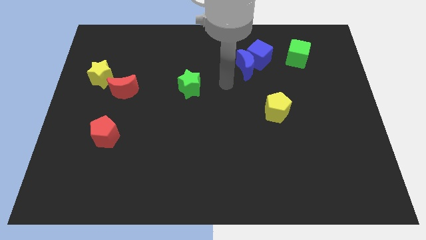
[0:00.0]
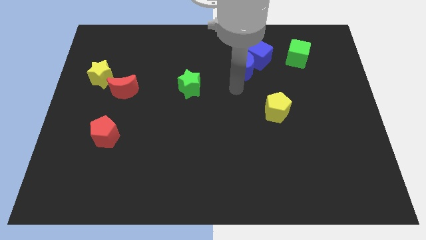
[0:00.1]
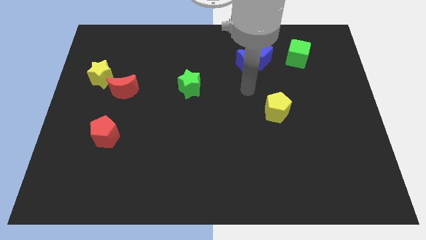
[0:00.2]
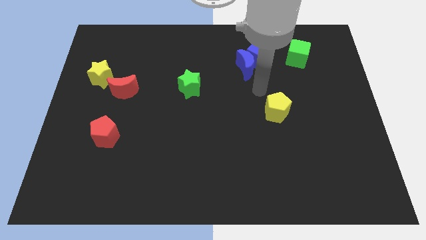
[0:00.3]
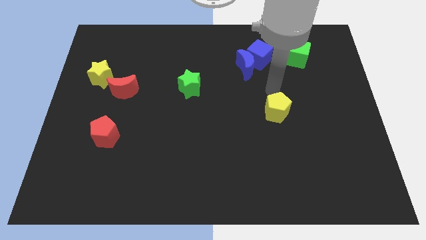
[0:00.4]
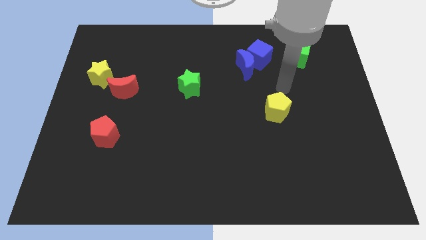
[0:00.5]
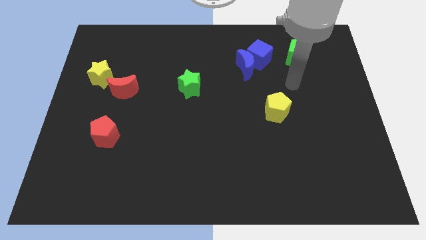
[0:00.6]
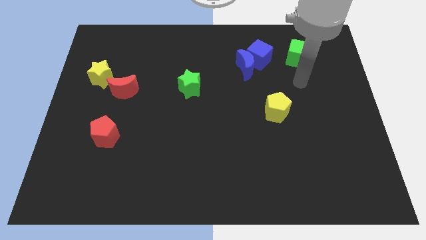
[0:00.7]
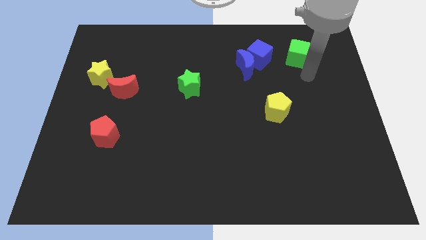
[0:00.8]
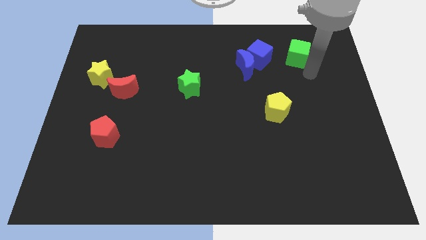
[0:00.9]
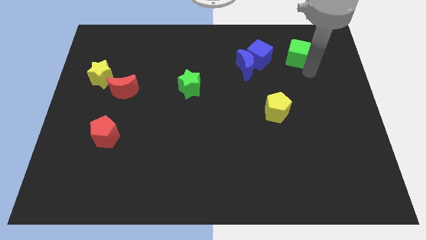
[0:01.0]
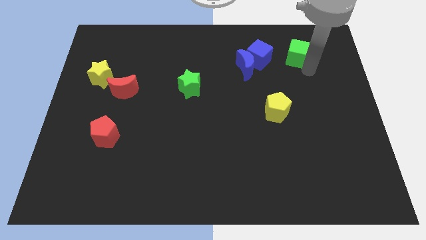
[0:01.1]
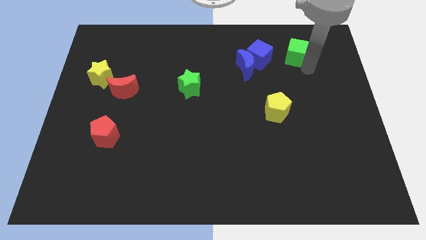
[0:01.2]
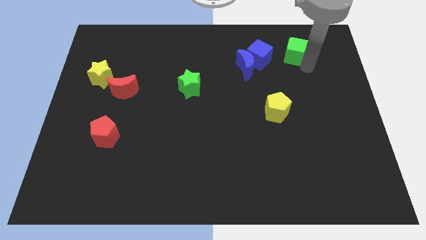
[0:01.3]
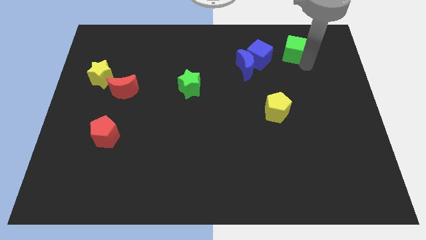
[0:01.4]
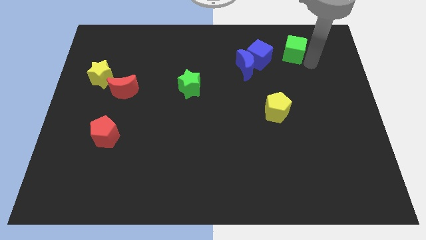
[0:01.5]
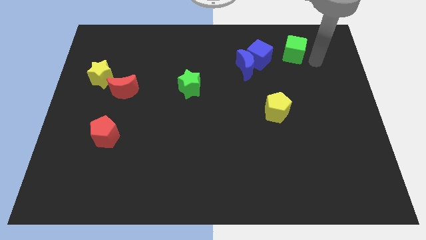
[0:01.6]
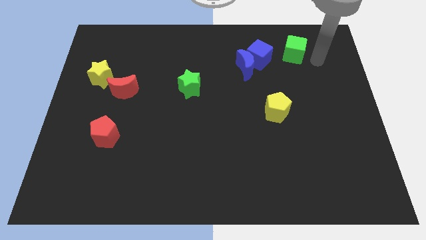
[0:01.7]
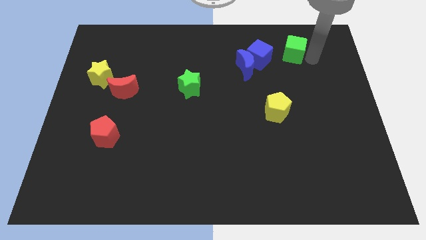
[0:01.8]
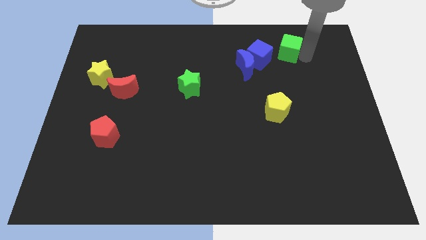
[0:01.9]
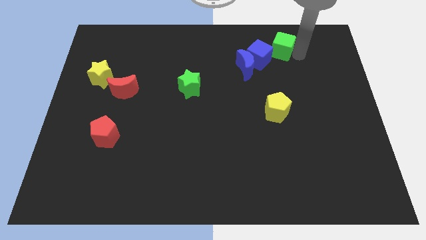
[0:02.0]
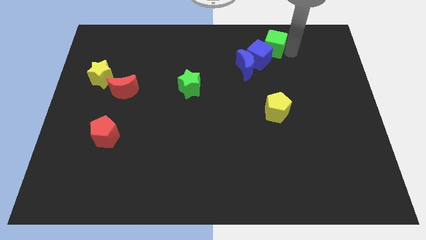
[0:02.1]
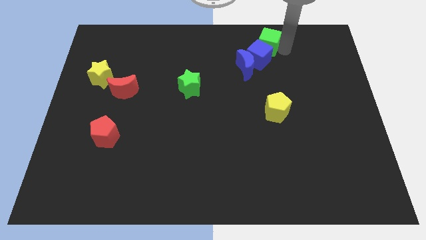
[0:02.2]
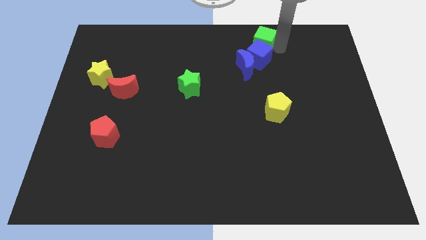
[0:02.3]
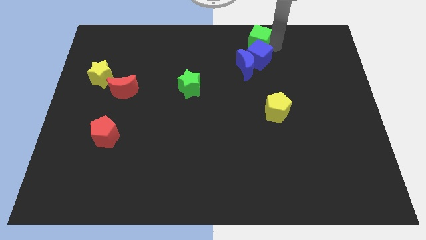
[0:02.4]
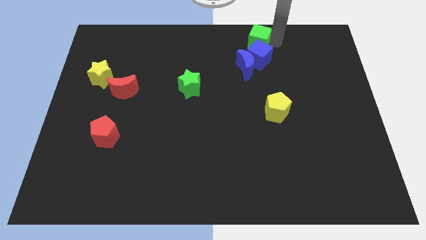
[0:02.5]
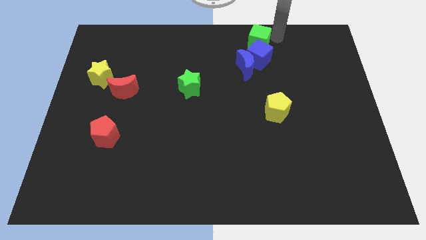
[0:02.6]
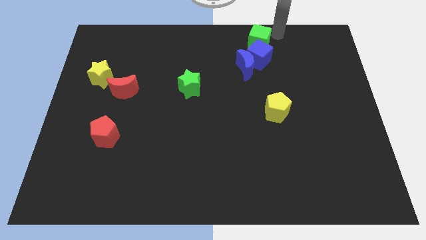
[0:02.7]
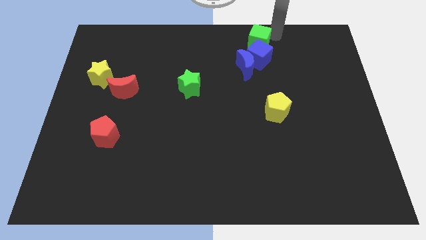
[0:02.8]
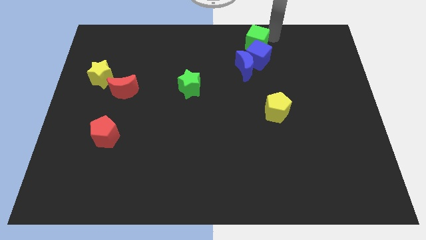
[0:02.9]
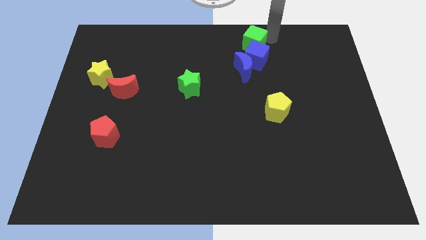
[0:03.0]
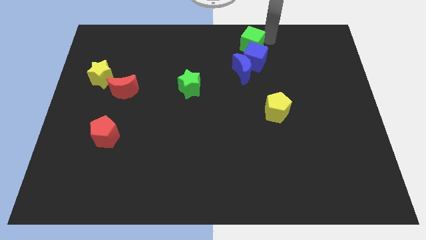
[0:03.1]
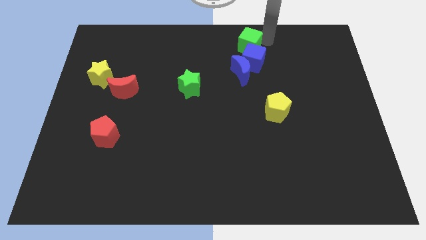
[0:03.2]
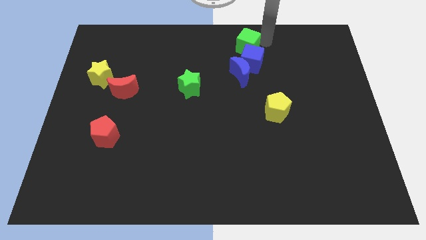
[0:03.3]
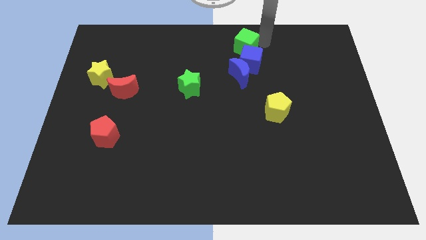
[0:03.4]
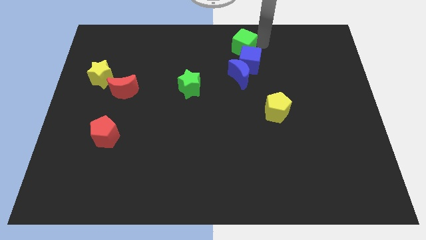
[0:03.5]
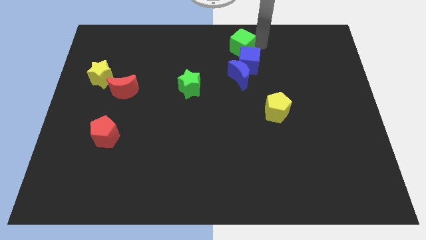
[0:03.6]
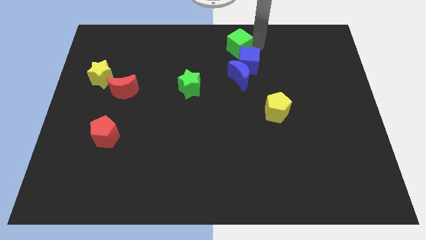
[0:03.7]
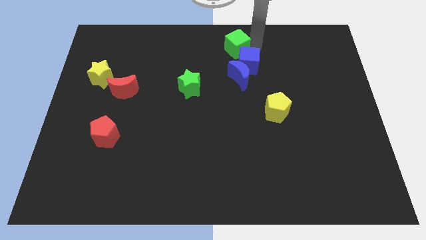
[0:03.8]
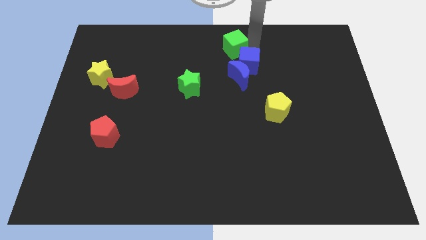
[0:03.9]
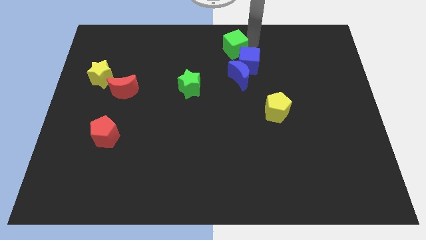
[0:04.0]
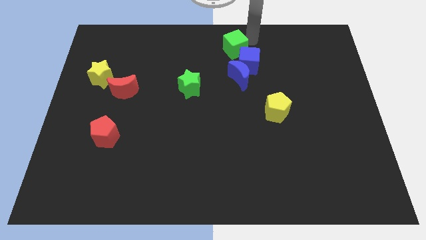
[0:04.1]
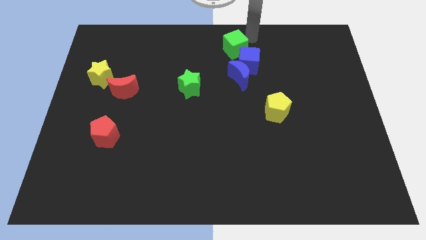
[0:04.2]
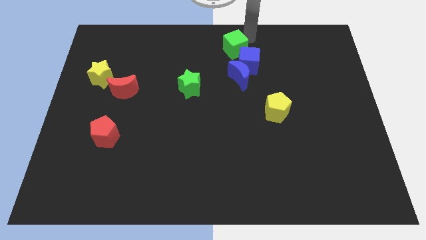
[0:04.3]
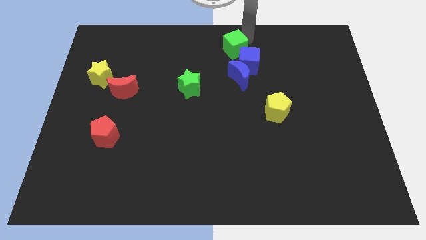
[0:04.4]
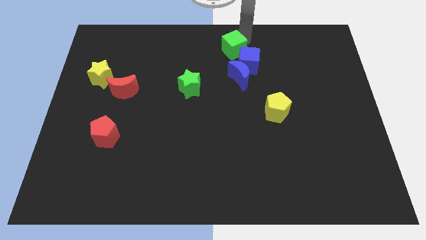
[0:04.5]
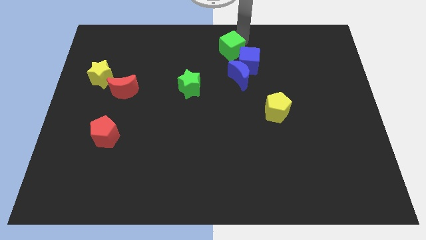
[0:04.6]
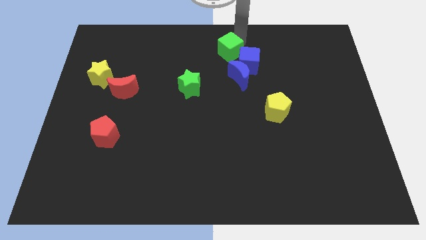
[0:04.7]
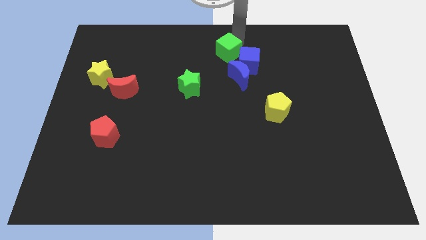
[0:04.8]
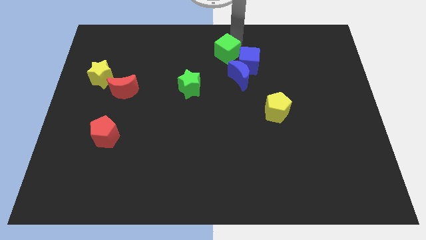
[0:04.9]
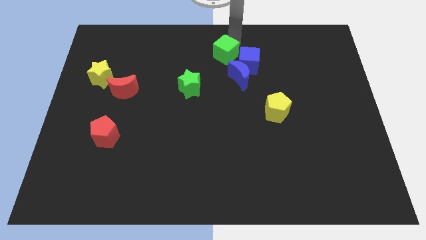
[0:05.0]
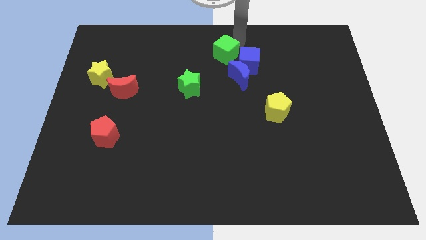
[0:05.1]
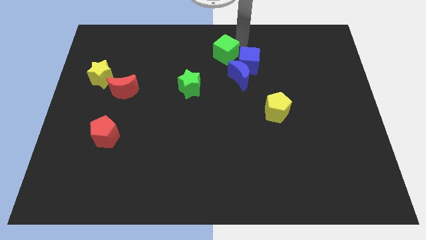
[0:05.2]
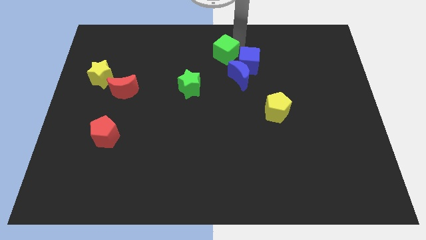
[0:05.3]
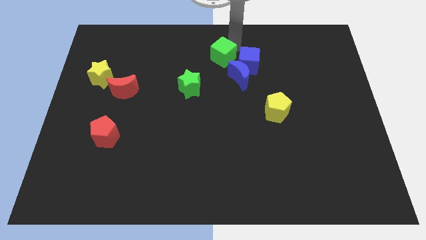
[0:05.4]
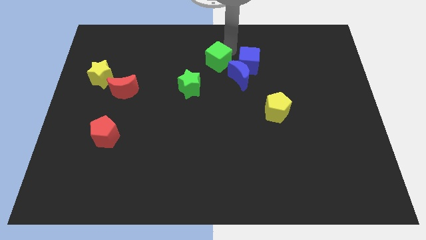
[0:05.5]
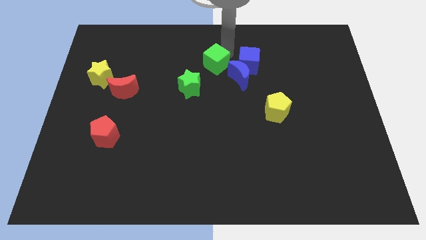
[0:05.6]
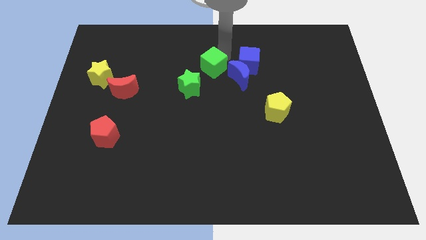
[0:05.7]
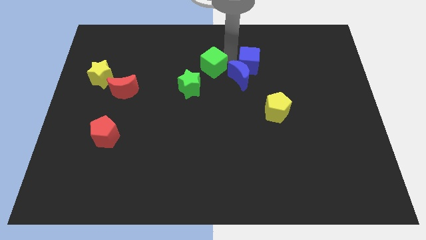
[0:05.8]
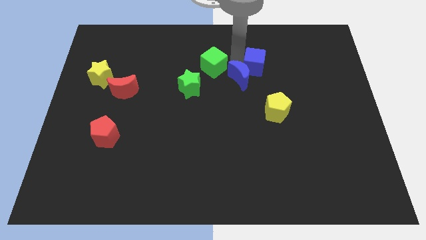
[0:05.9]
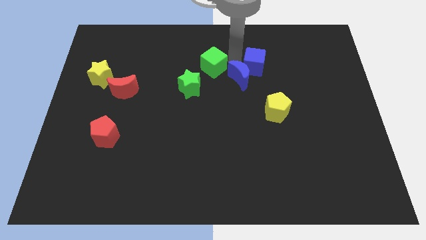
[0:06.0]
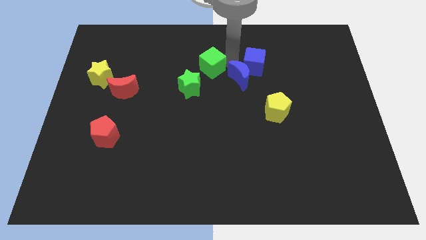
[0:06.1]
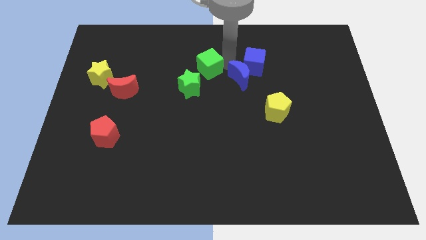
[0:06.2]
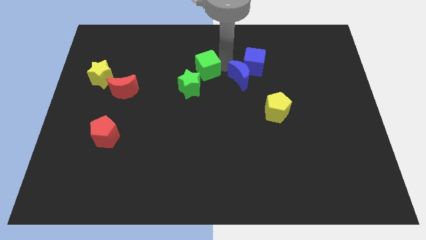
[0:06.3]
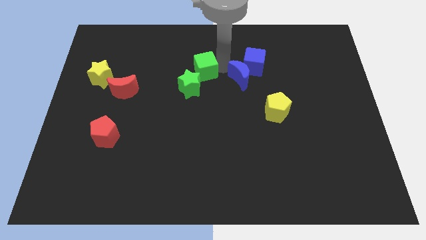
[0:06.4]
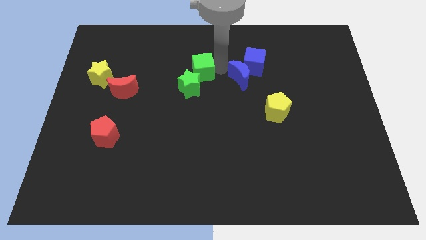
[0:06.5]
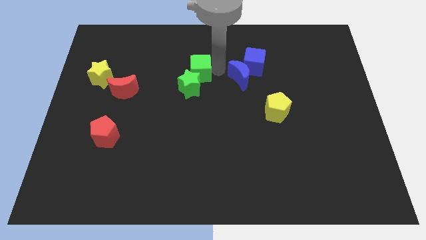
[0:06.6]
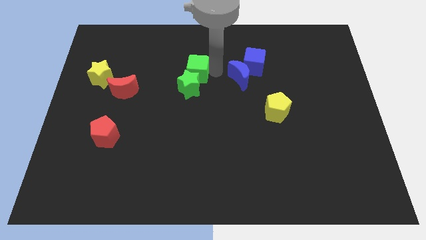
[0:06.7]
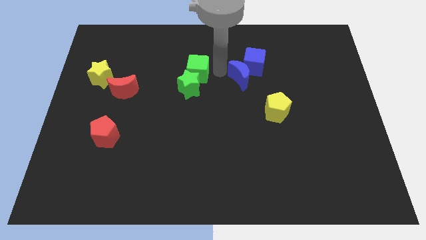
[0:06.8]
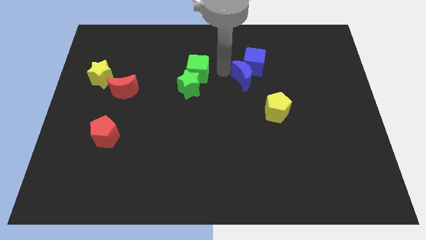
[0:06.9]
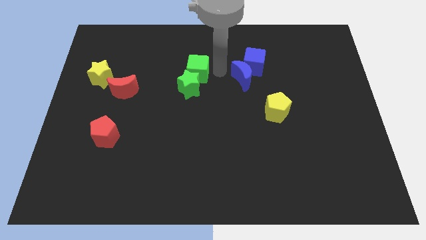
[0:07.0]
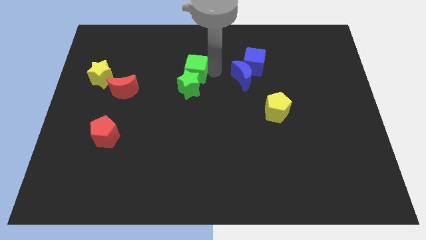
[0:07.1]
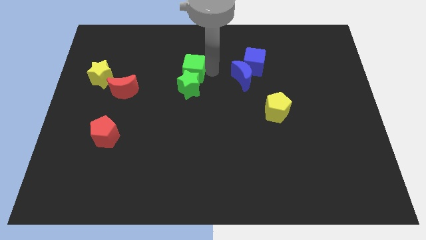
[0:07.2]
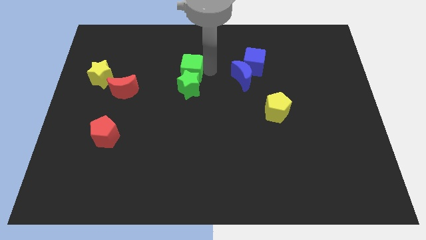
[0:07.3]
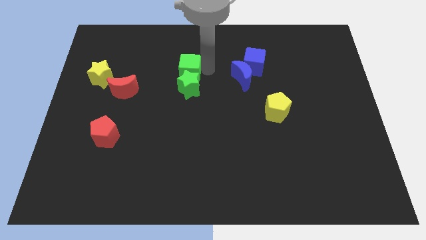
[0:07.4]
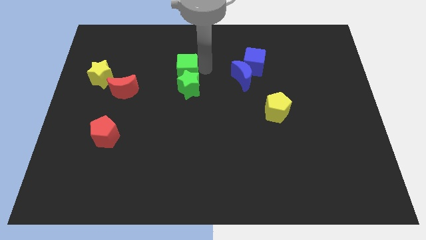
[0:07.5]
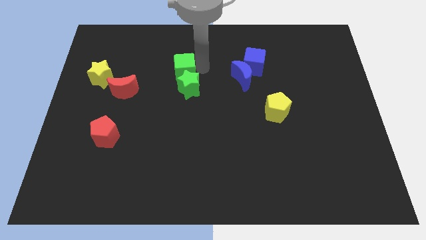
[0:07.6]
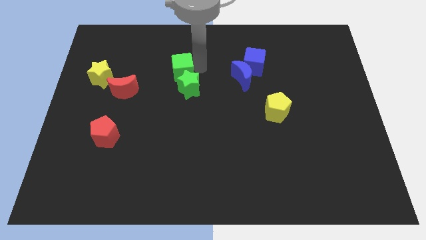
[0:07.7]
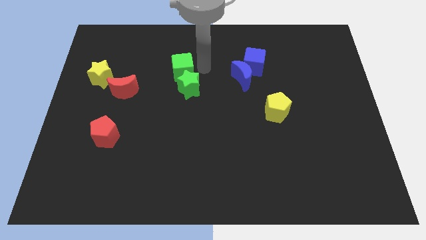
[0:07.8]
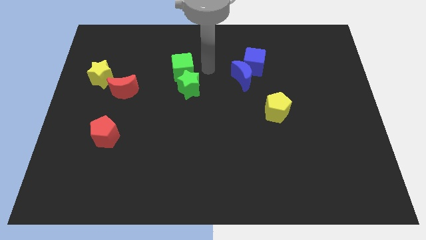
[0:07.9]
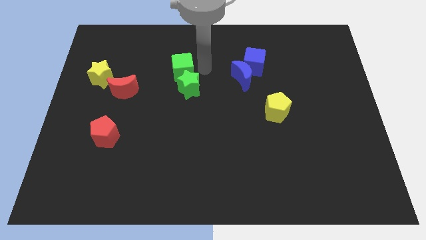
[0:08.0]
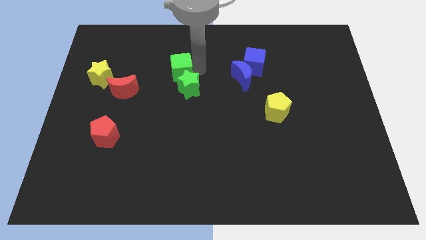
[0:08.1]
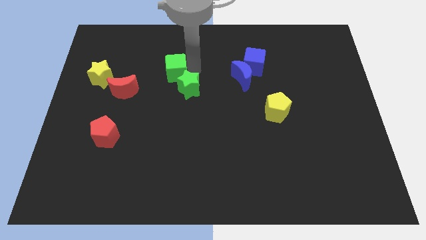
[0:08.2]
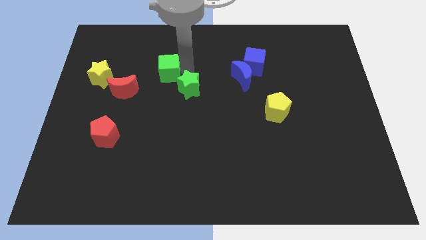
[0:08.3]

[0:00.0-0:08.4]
push the green cube to the top right of the red moon
